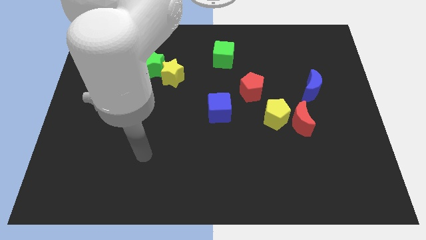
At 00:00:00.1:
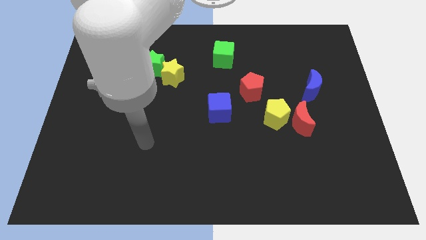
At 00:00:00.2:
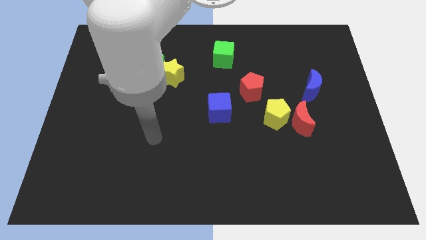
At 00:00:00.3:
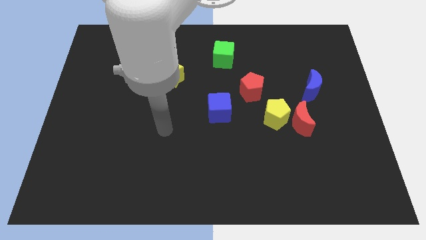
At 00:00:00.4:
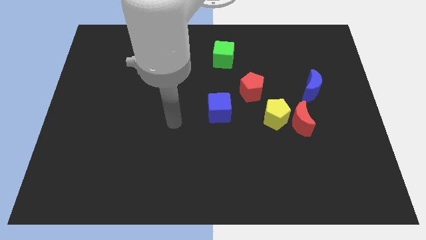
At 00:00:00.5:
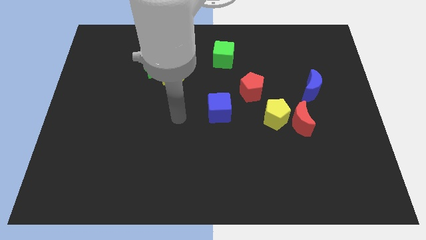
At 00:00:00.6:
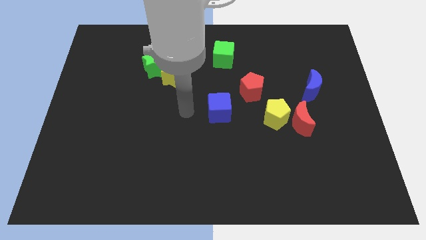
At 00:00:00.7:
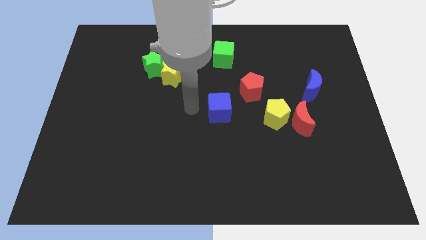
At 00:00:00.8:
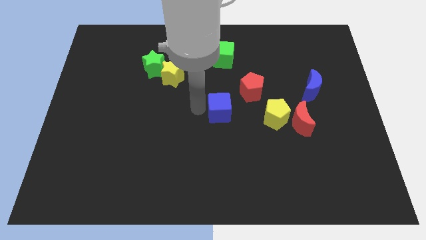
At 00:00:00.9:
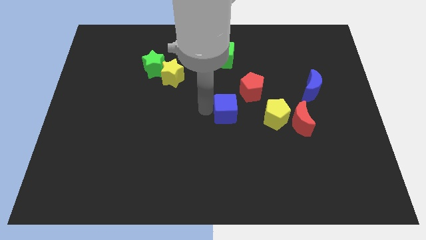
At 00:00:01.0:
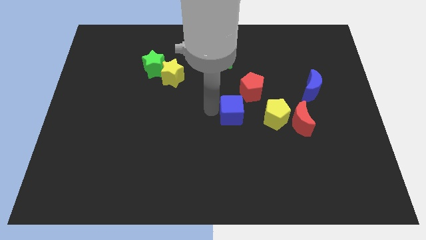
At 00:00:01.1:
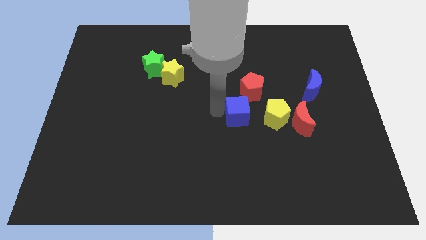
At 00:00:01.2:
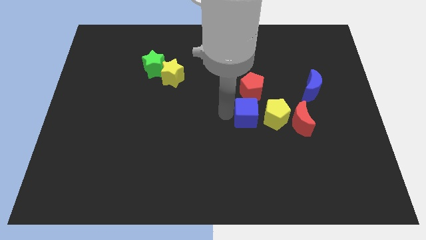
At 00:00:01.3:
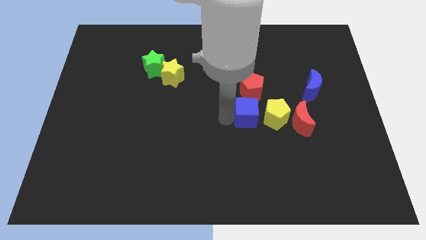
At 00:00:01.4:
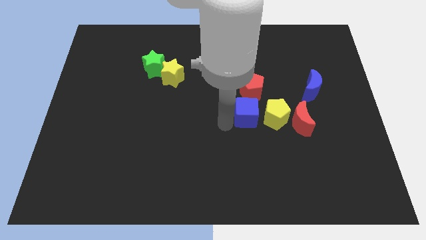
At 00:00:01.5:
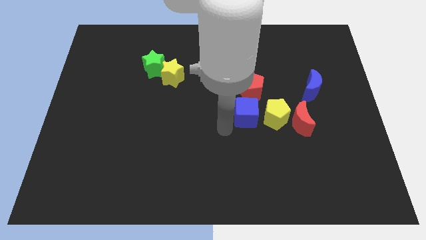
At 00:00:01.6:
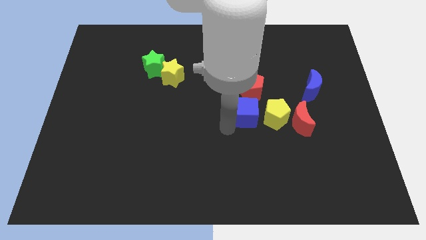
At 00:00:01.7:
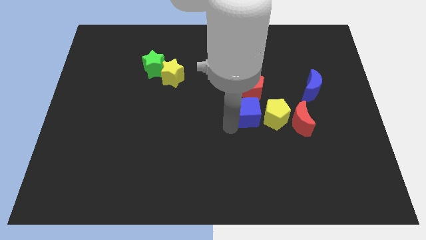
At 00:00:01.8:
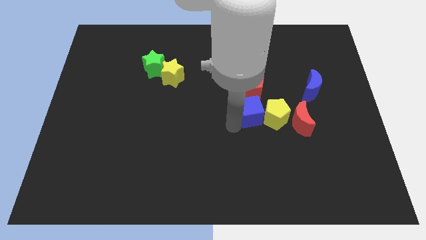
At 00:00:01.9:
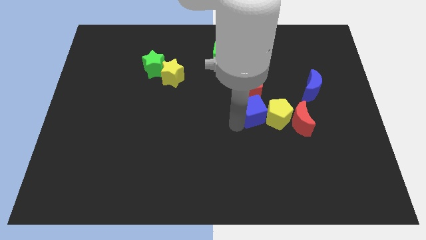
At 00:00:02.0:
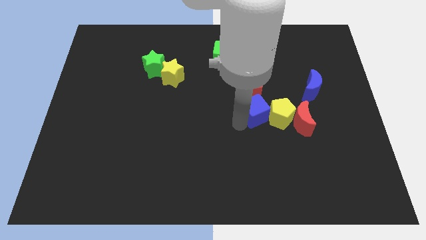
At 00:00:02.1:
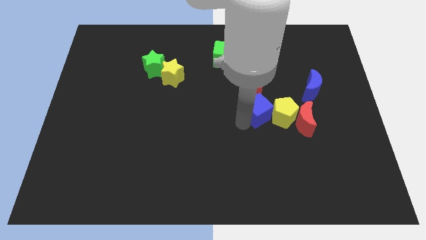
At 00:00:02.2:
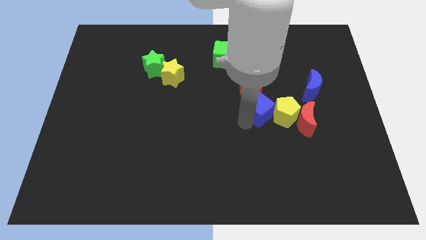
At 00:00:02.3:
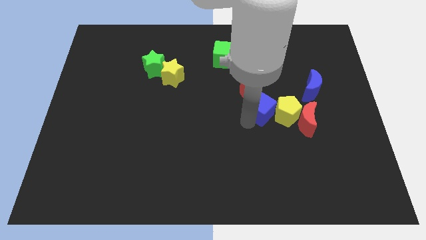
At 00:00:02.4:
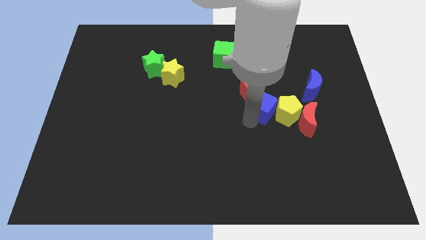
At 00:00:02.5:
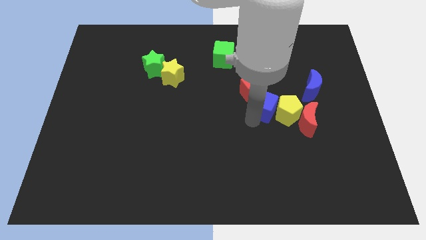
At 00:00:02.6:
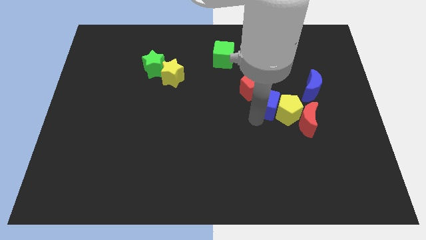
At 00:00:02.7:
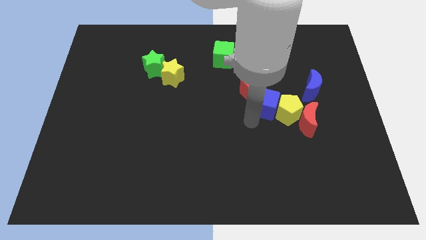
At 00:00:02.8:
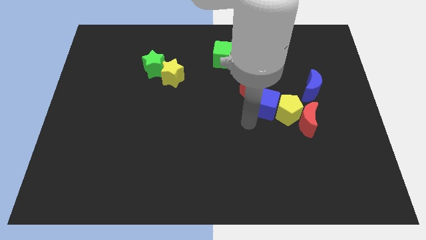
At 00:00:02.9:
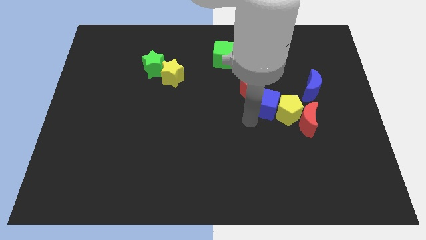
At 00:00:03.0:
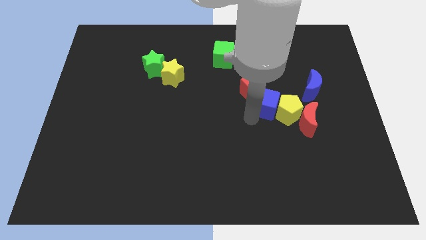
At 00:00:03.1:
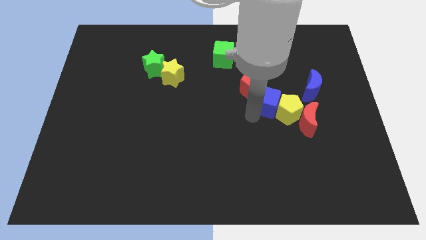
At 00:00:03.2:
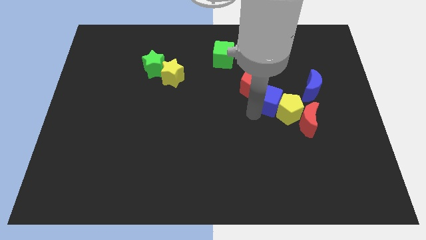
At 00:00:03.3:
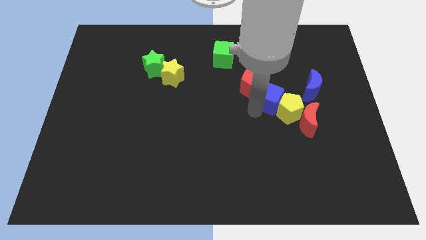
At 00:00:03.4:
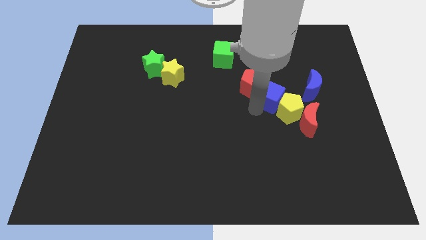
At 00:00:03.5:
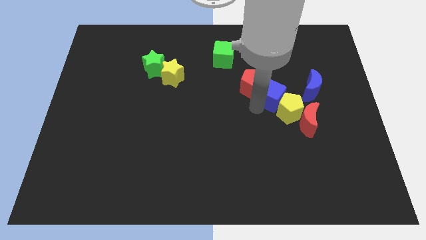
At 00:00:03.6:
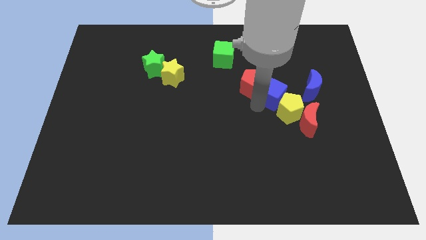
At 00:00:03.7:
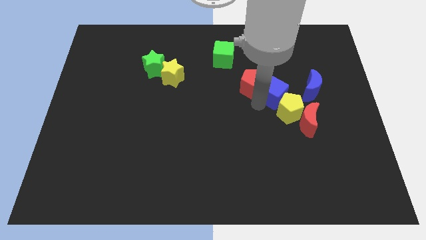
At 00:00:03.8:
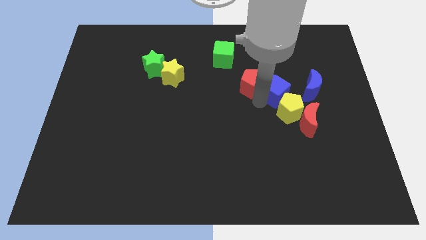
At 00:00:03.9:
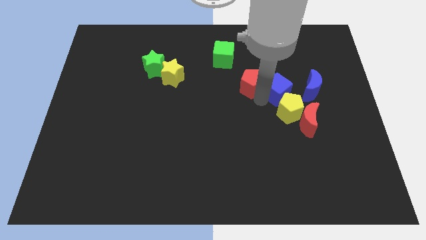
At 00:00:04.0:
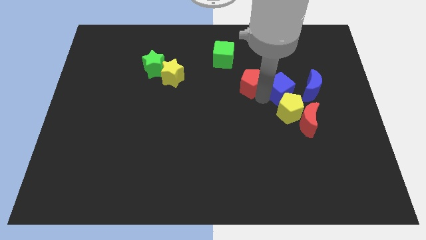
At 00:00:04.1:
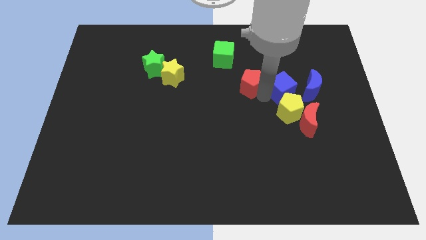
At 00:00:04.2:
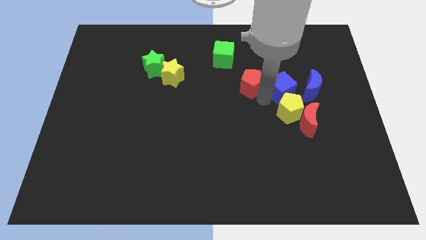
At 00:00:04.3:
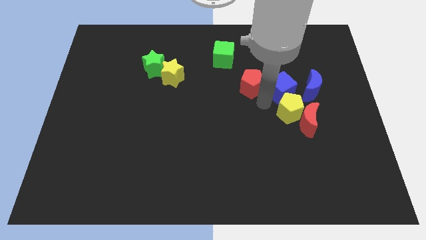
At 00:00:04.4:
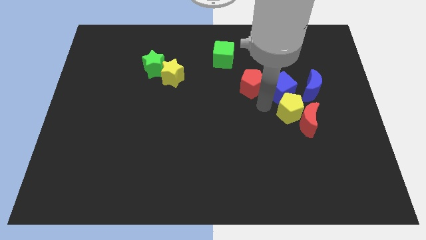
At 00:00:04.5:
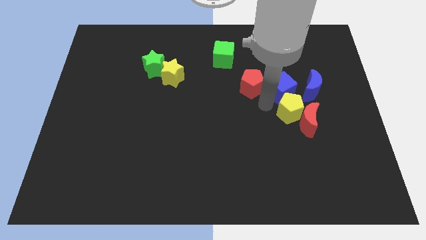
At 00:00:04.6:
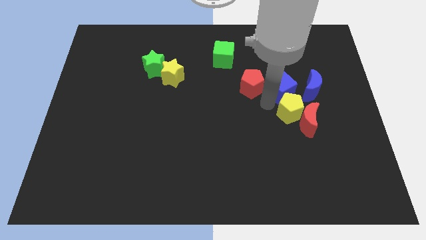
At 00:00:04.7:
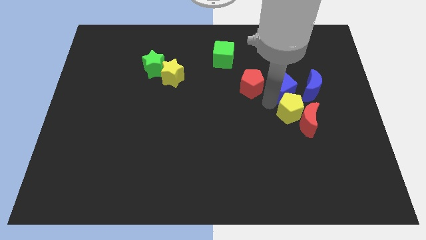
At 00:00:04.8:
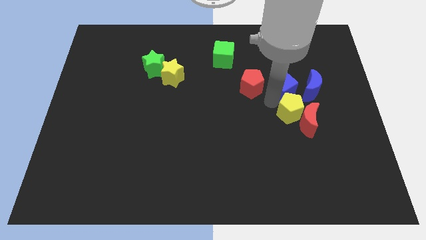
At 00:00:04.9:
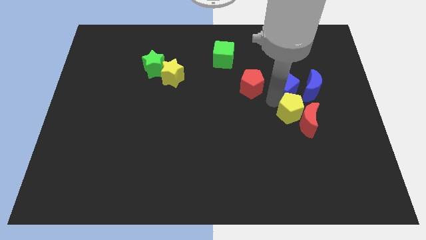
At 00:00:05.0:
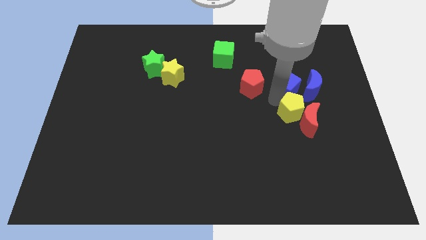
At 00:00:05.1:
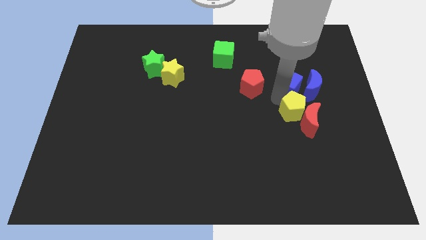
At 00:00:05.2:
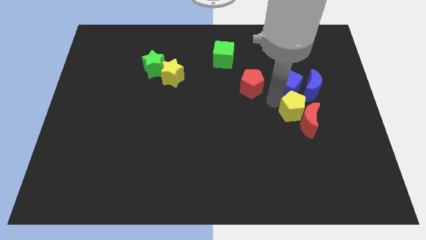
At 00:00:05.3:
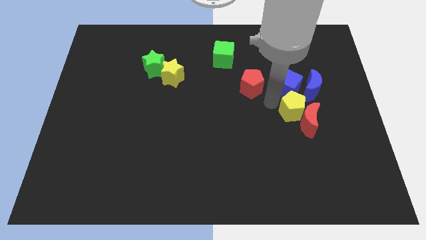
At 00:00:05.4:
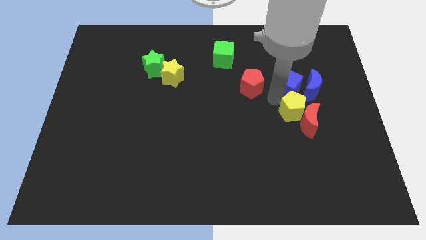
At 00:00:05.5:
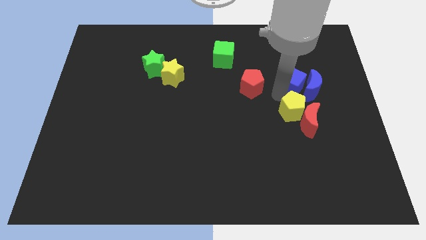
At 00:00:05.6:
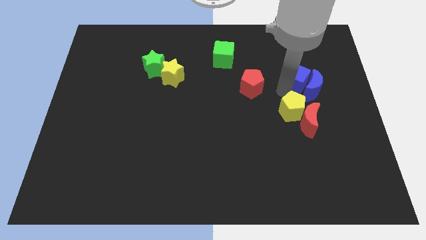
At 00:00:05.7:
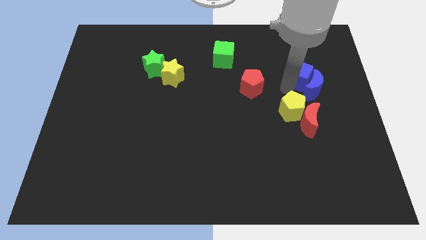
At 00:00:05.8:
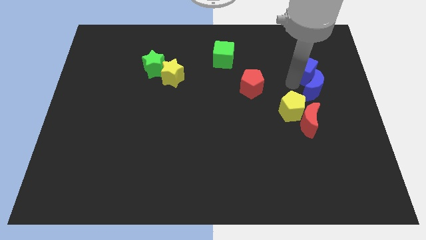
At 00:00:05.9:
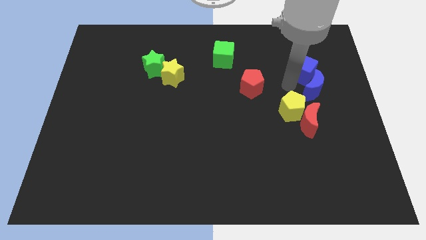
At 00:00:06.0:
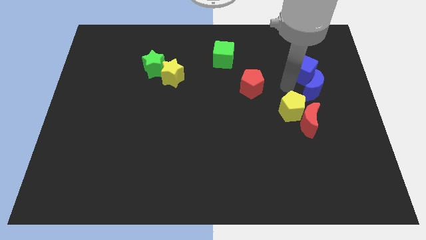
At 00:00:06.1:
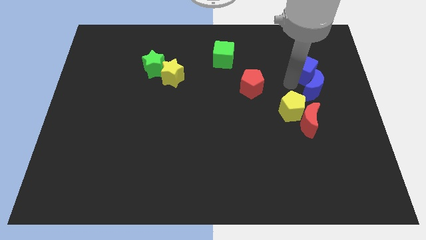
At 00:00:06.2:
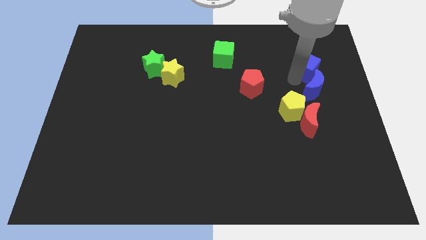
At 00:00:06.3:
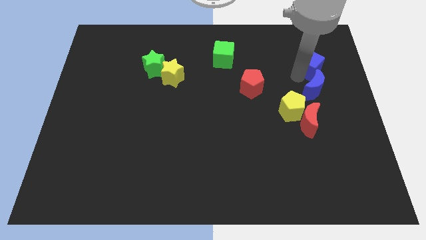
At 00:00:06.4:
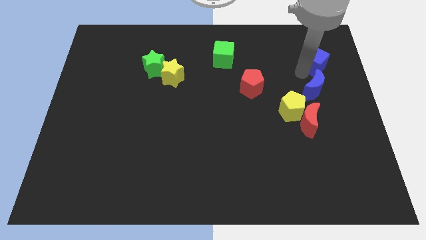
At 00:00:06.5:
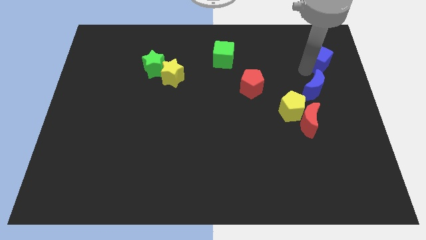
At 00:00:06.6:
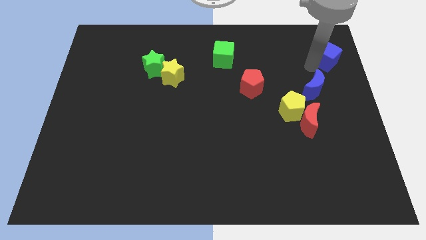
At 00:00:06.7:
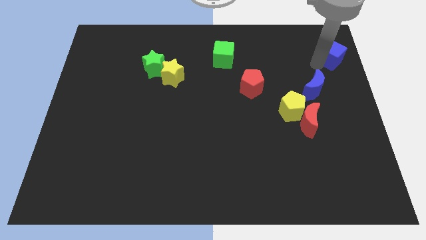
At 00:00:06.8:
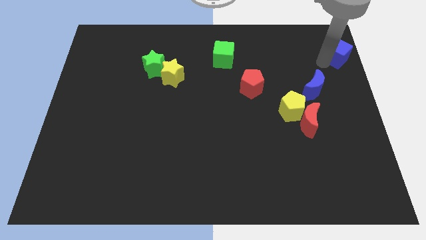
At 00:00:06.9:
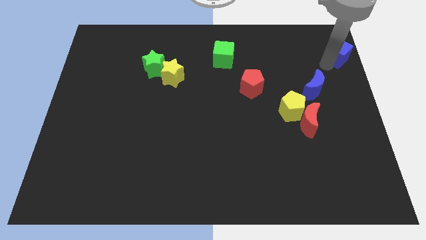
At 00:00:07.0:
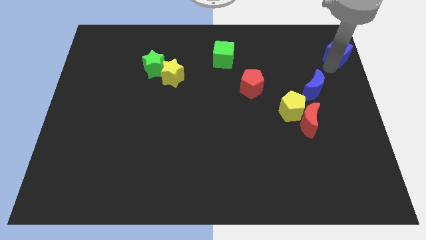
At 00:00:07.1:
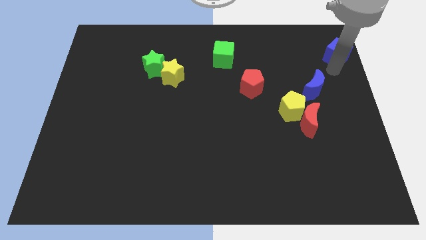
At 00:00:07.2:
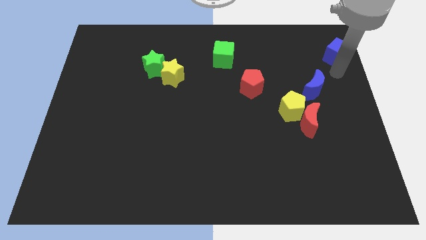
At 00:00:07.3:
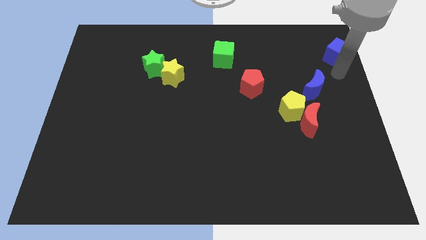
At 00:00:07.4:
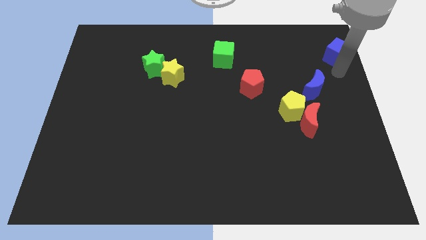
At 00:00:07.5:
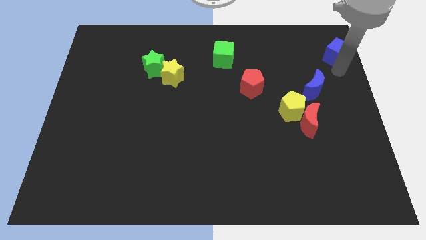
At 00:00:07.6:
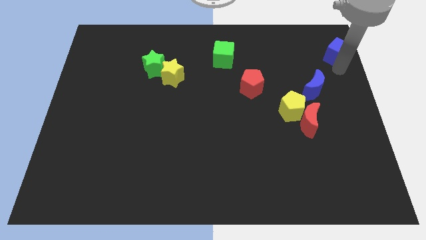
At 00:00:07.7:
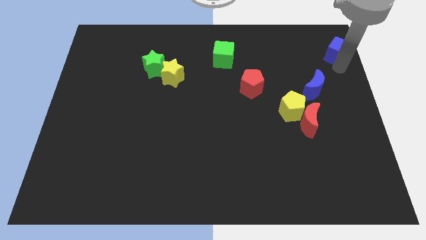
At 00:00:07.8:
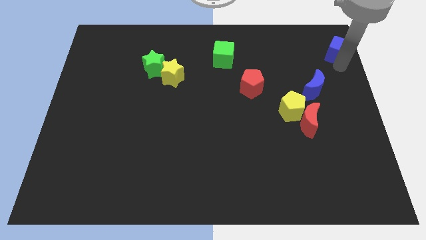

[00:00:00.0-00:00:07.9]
slide the blue cube to the top right corner
